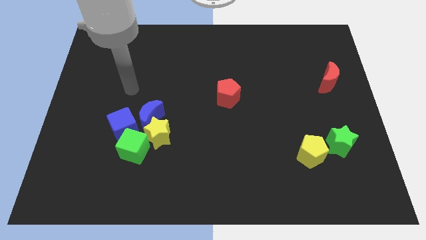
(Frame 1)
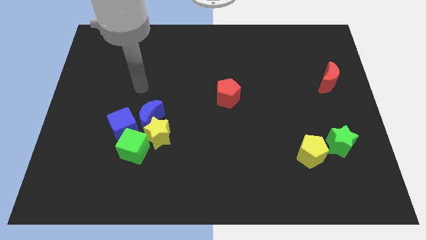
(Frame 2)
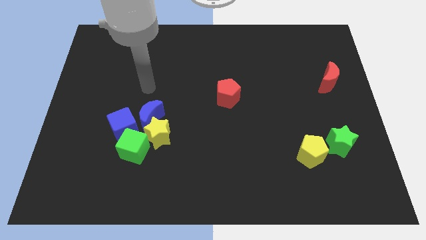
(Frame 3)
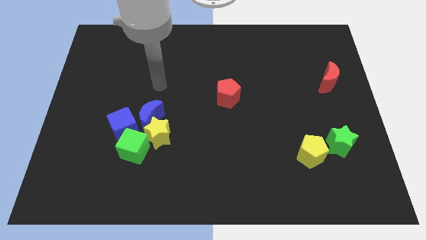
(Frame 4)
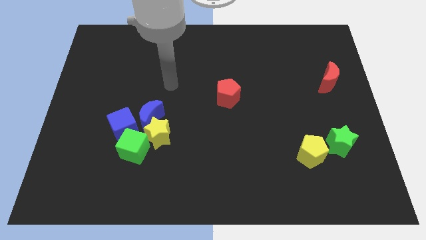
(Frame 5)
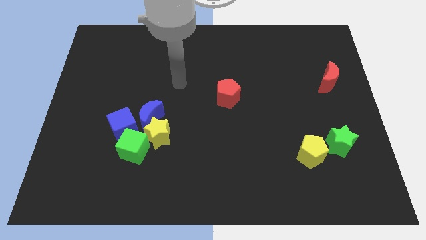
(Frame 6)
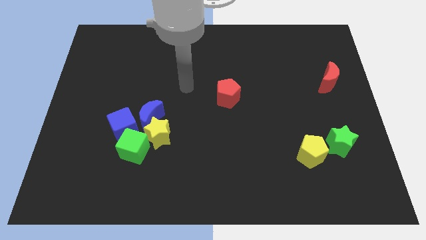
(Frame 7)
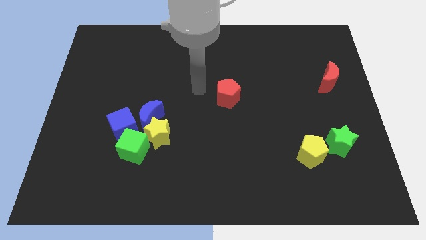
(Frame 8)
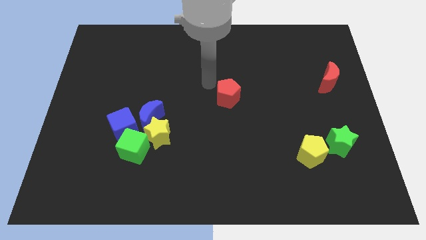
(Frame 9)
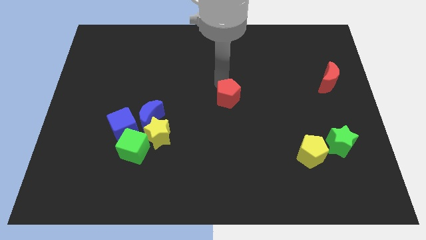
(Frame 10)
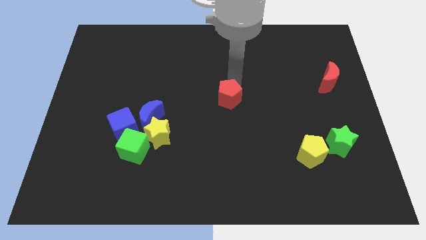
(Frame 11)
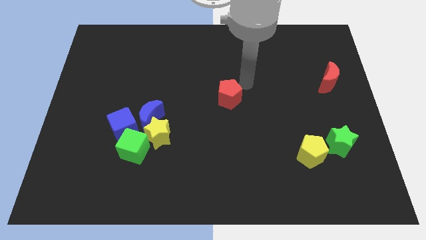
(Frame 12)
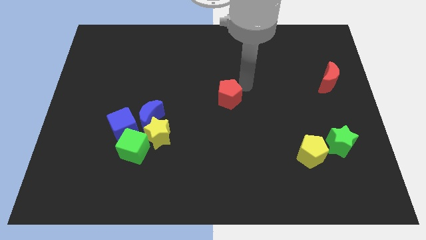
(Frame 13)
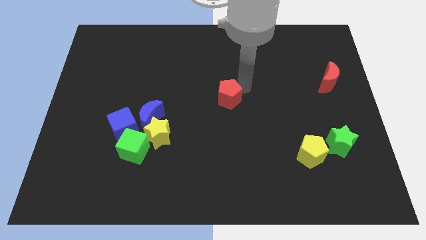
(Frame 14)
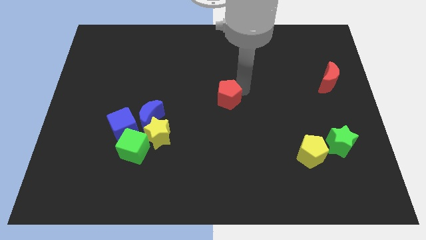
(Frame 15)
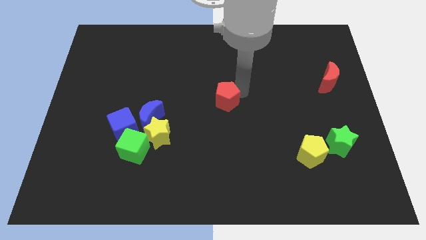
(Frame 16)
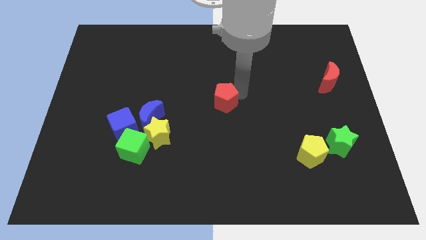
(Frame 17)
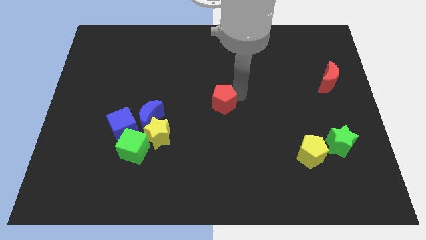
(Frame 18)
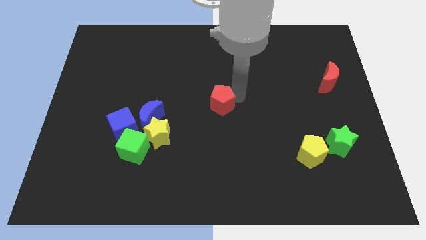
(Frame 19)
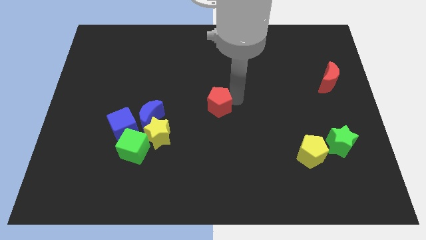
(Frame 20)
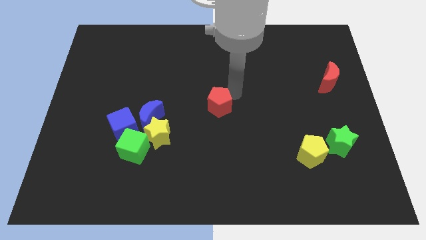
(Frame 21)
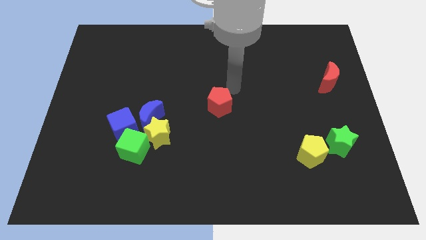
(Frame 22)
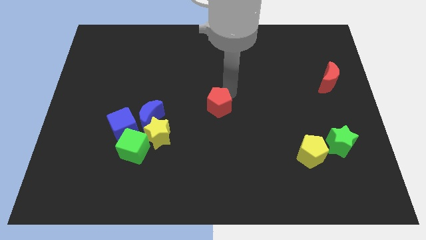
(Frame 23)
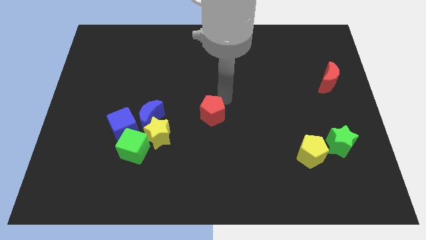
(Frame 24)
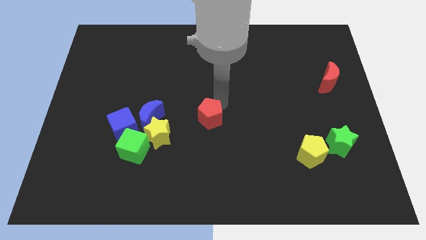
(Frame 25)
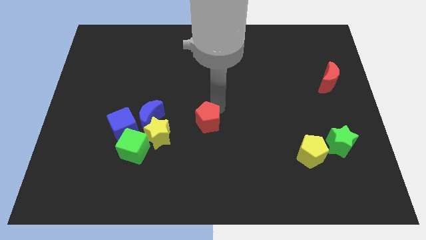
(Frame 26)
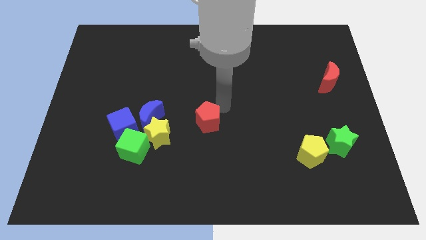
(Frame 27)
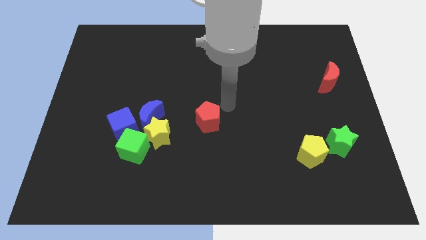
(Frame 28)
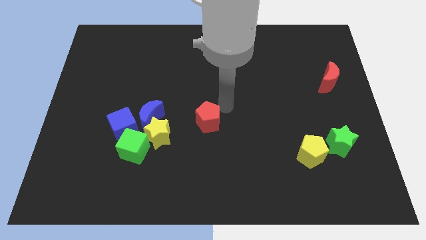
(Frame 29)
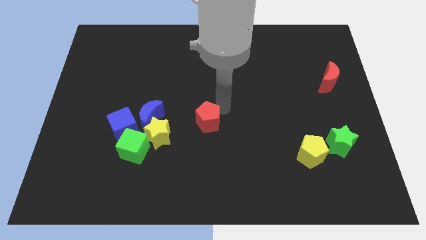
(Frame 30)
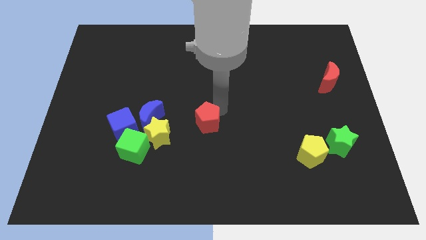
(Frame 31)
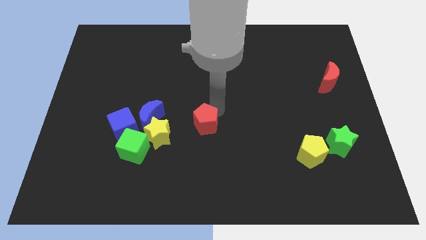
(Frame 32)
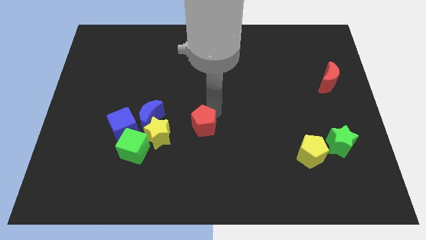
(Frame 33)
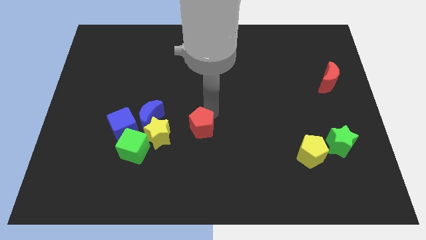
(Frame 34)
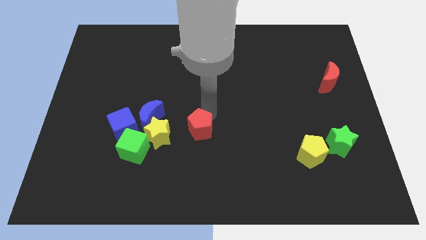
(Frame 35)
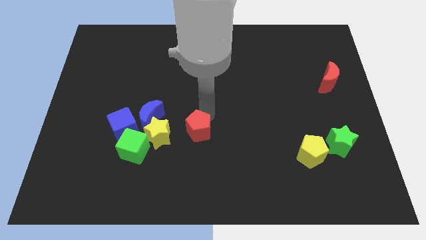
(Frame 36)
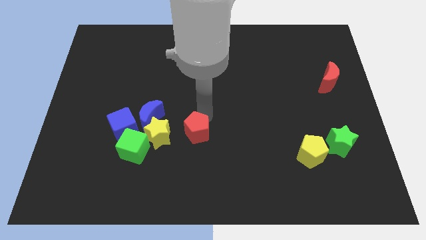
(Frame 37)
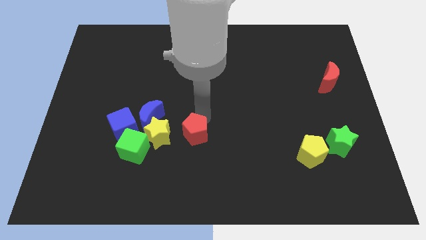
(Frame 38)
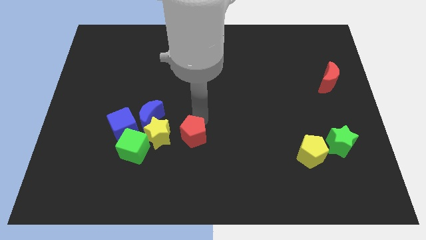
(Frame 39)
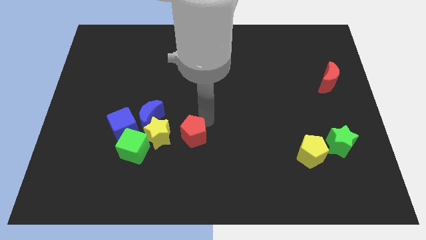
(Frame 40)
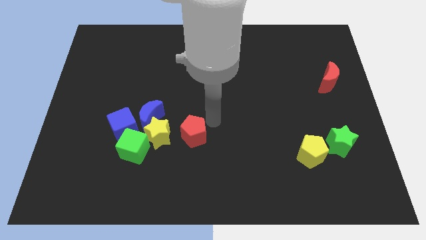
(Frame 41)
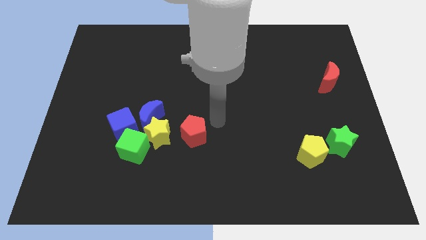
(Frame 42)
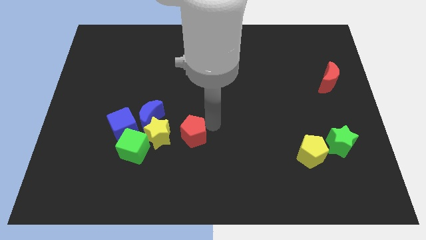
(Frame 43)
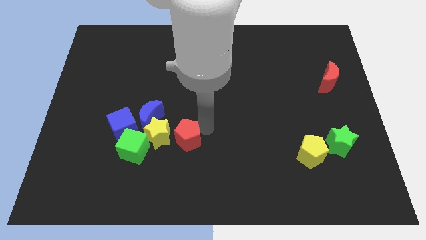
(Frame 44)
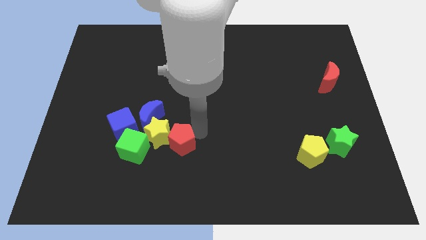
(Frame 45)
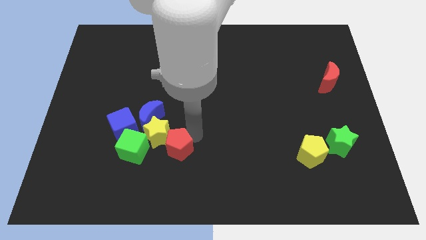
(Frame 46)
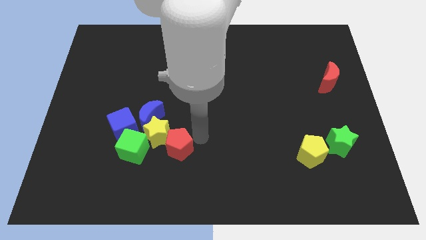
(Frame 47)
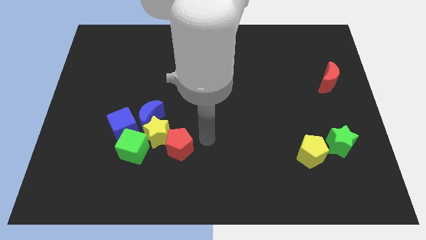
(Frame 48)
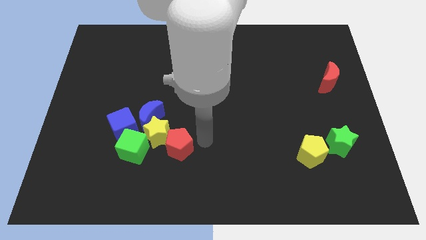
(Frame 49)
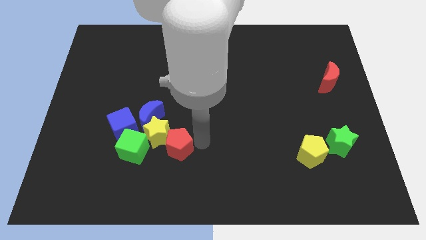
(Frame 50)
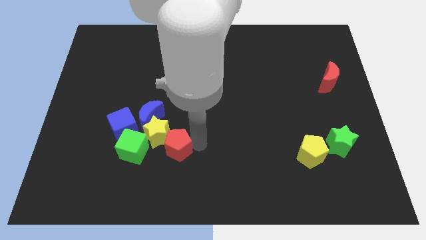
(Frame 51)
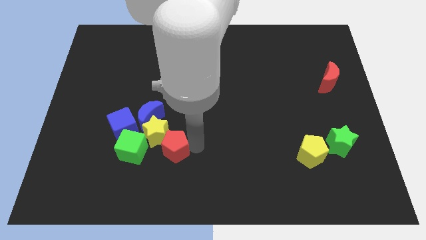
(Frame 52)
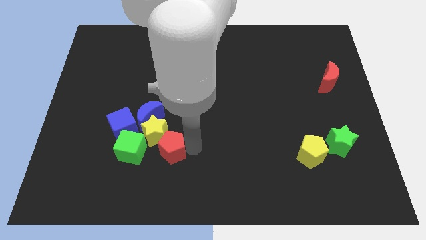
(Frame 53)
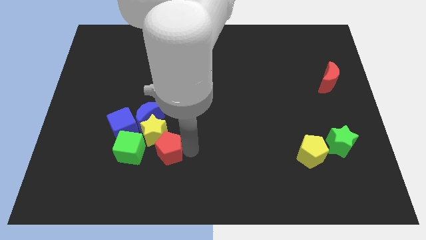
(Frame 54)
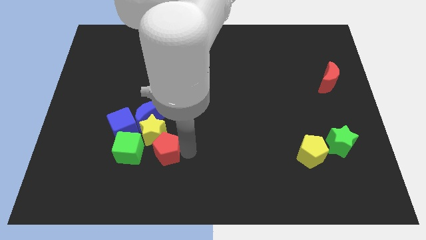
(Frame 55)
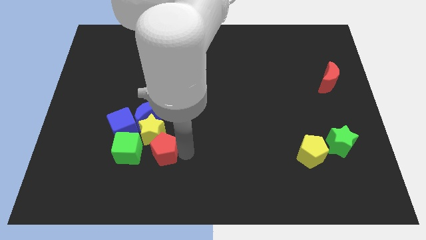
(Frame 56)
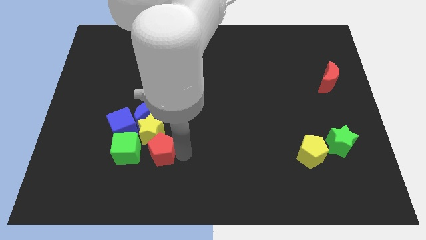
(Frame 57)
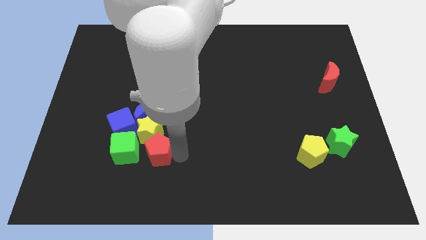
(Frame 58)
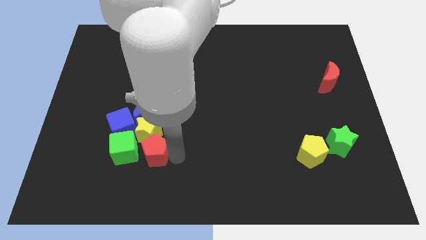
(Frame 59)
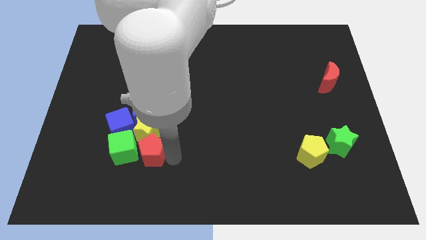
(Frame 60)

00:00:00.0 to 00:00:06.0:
slide the red pentagon next to the green cube
